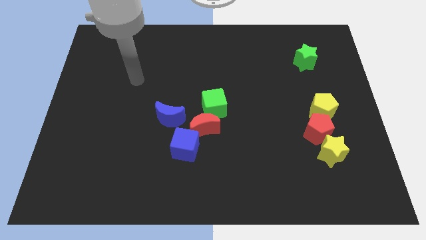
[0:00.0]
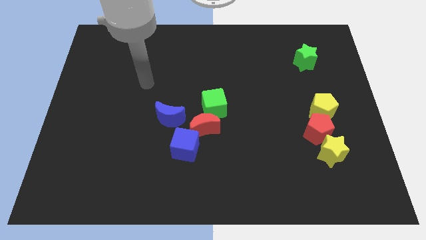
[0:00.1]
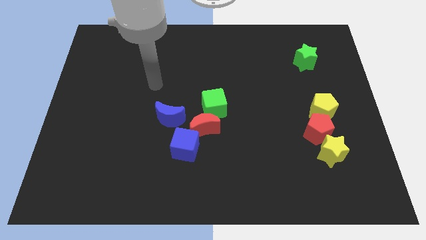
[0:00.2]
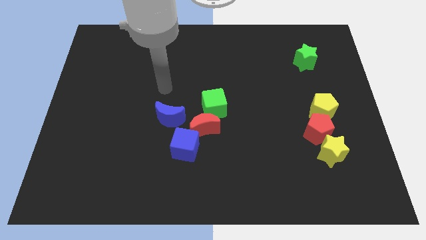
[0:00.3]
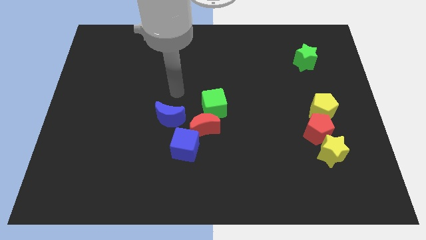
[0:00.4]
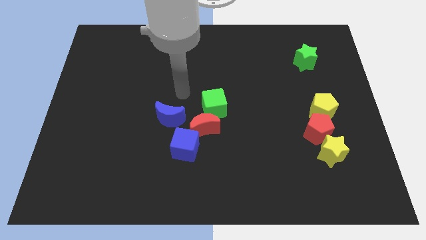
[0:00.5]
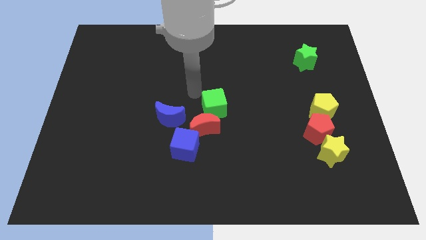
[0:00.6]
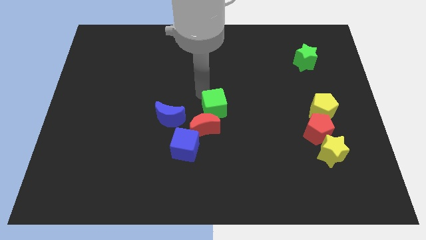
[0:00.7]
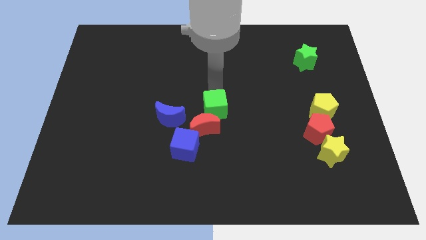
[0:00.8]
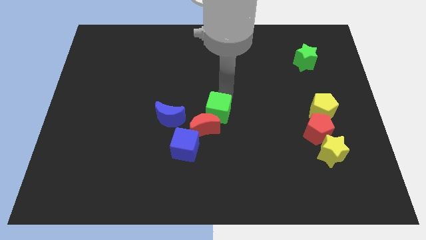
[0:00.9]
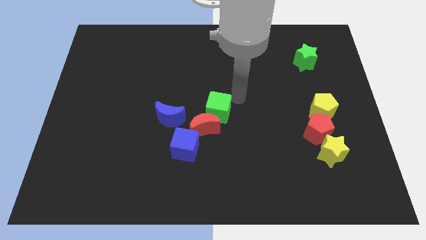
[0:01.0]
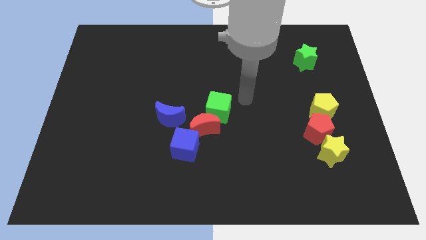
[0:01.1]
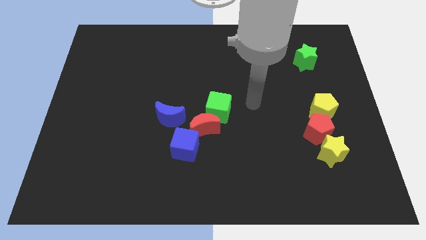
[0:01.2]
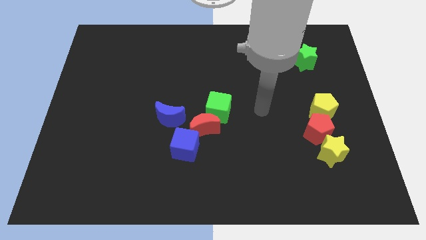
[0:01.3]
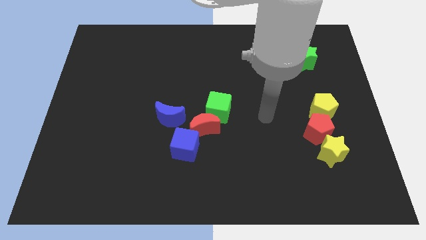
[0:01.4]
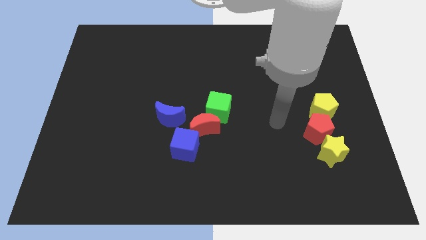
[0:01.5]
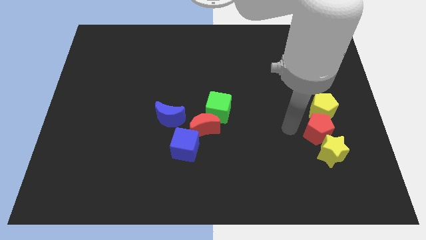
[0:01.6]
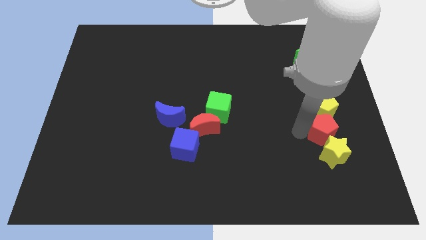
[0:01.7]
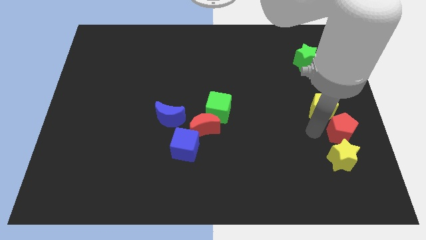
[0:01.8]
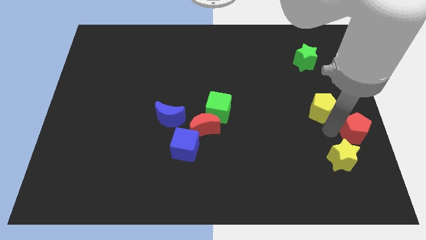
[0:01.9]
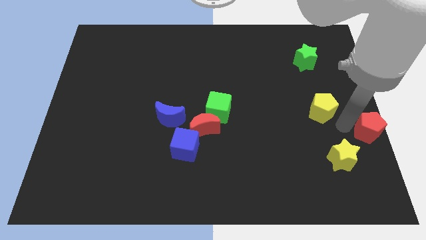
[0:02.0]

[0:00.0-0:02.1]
move the yellow pentagon away from the red pentagon

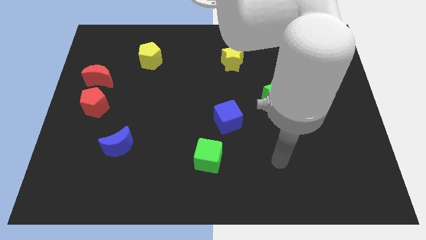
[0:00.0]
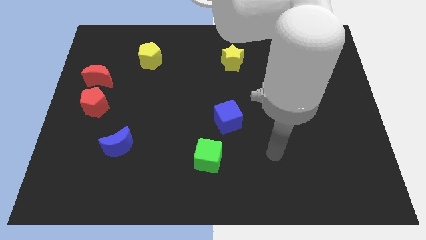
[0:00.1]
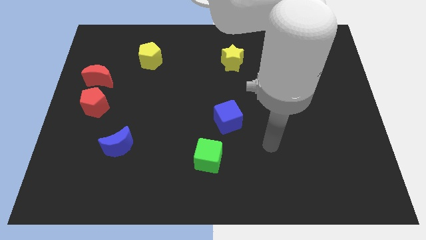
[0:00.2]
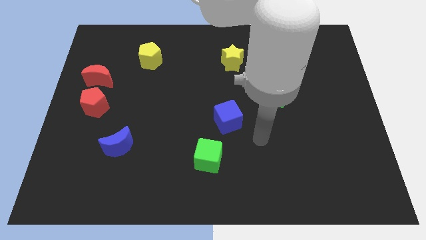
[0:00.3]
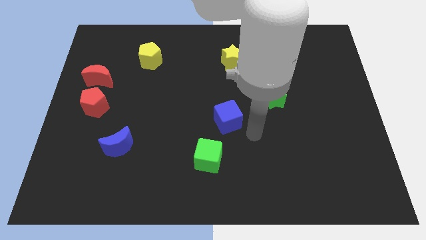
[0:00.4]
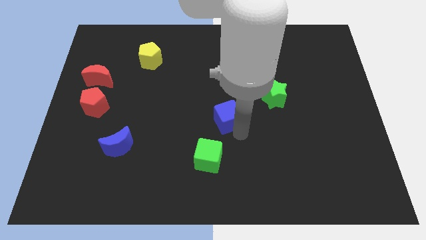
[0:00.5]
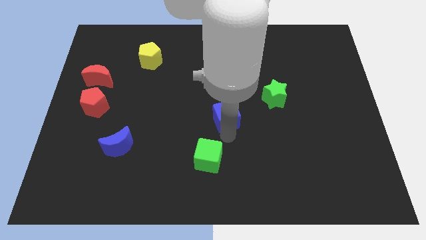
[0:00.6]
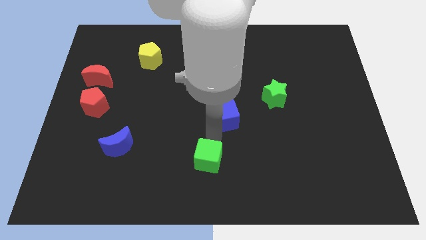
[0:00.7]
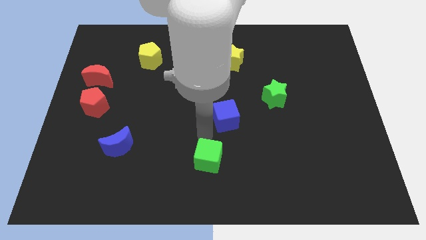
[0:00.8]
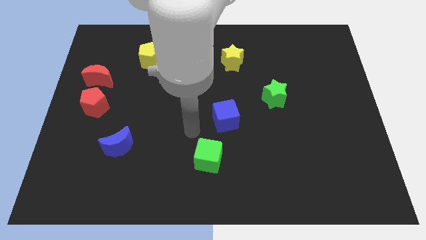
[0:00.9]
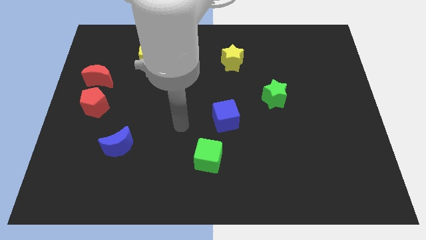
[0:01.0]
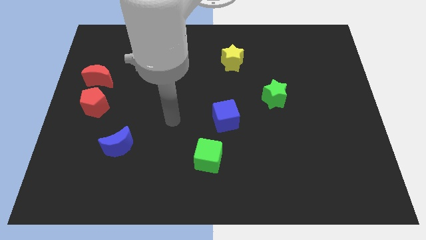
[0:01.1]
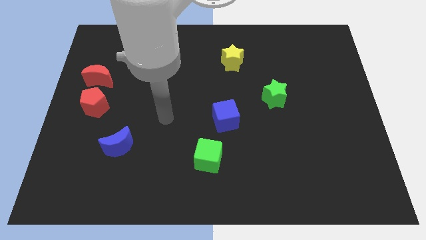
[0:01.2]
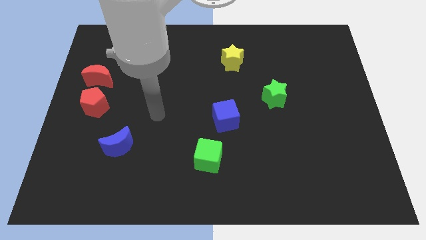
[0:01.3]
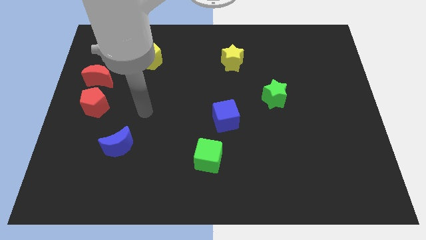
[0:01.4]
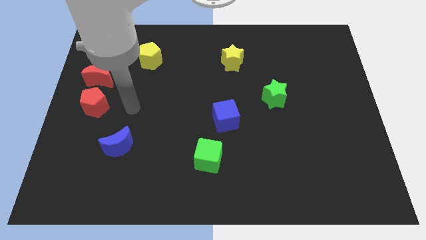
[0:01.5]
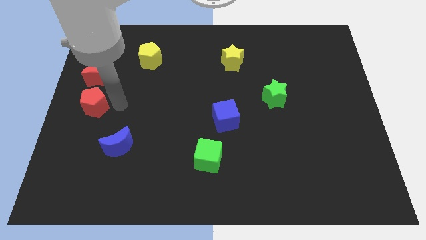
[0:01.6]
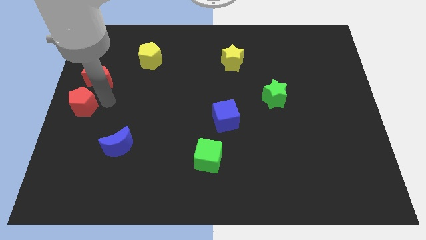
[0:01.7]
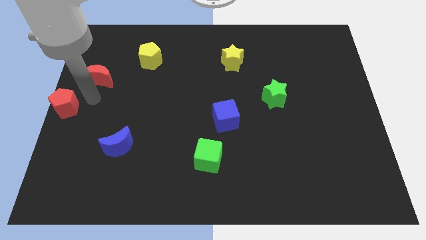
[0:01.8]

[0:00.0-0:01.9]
separate the red moon from the red pentagon

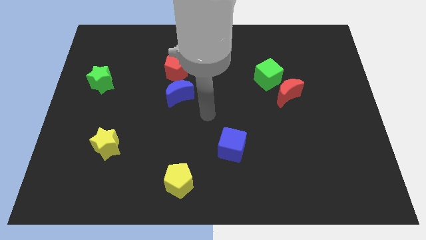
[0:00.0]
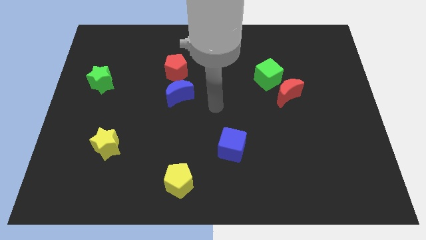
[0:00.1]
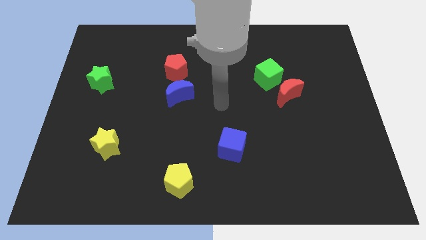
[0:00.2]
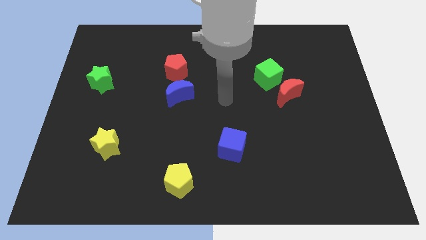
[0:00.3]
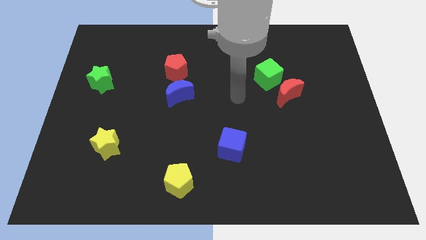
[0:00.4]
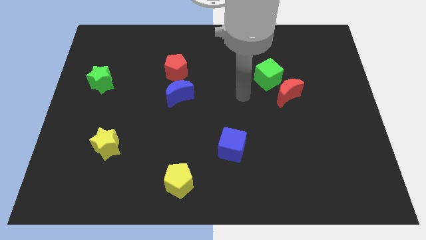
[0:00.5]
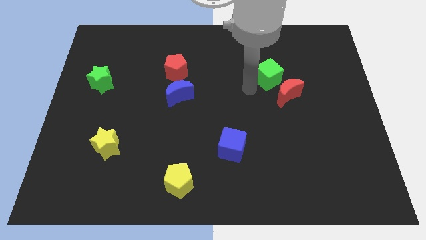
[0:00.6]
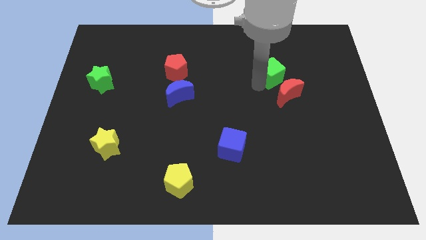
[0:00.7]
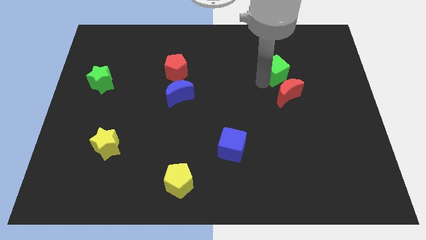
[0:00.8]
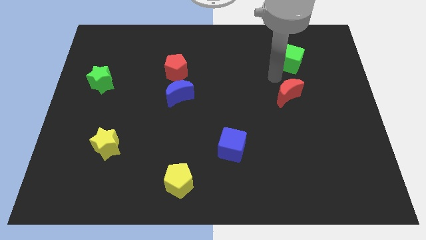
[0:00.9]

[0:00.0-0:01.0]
move the red moon away from the green cube

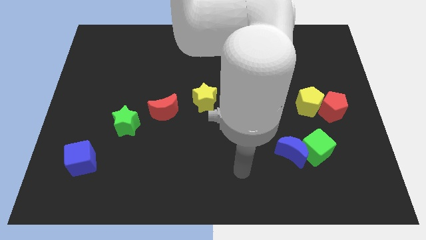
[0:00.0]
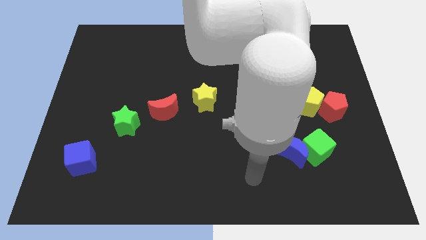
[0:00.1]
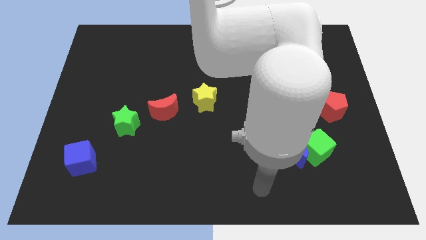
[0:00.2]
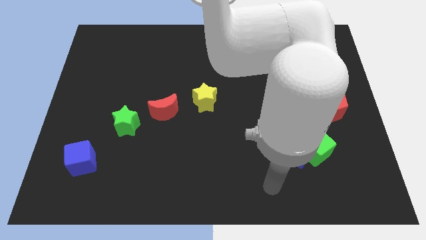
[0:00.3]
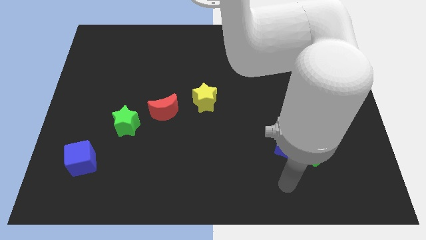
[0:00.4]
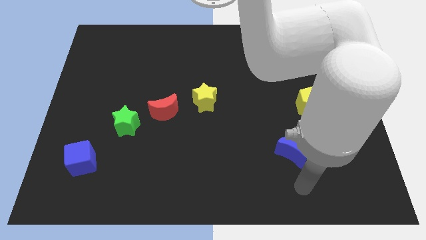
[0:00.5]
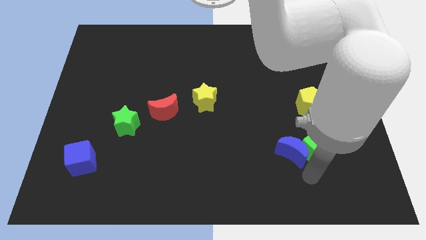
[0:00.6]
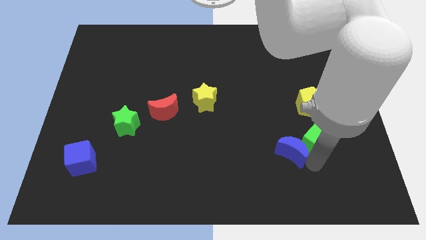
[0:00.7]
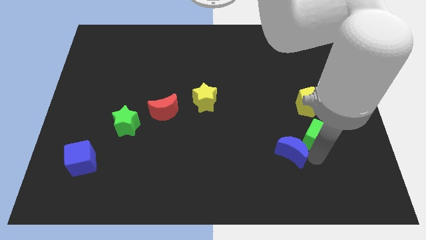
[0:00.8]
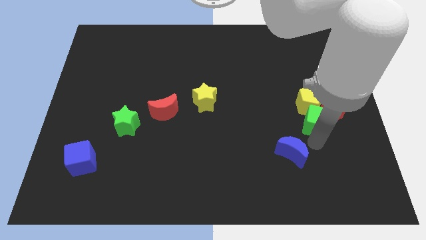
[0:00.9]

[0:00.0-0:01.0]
separate the blue moon from the green cube

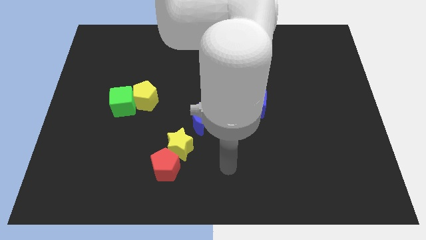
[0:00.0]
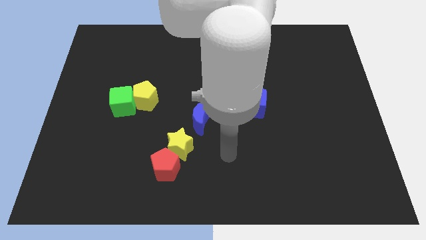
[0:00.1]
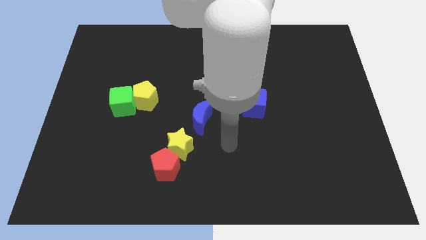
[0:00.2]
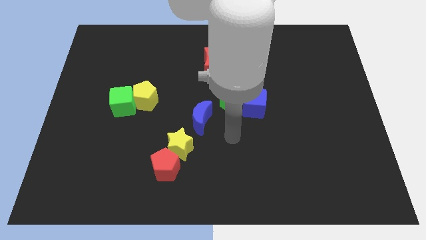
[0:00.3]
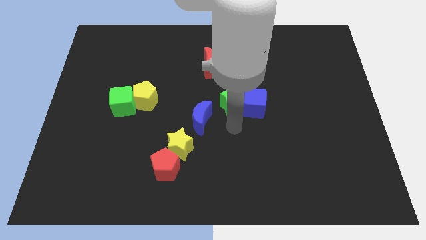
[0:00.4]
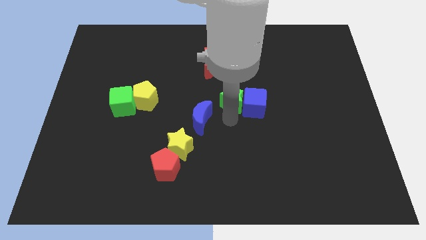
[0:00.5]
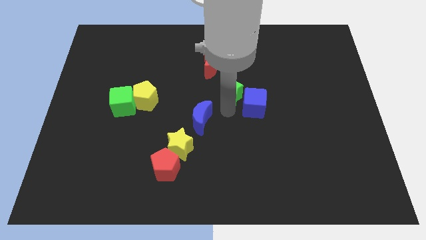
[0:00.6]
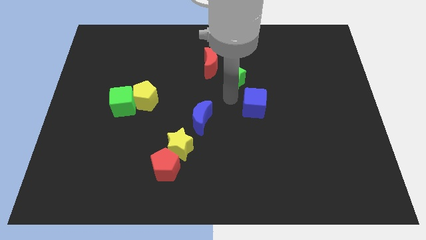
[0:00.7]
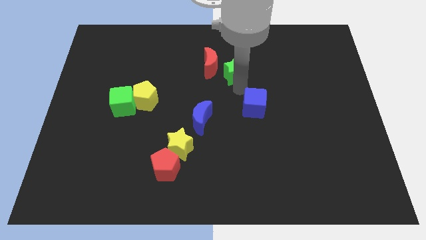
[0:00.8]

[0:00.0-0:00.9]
separate the blue cube from the green star

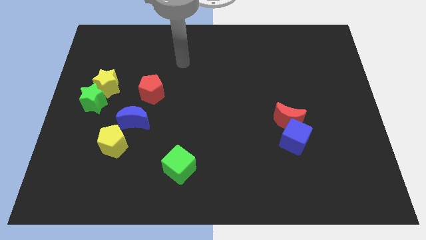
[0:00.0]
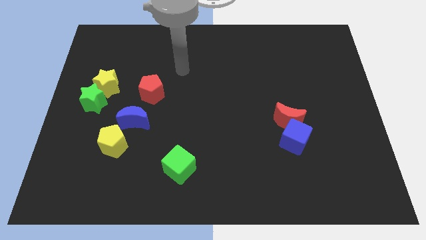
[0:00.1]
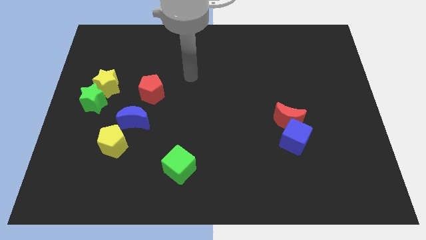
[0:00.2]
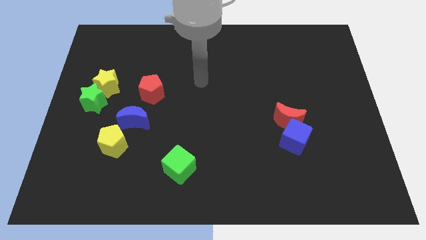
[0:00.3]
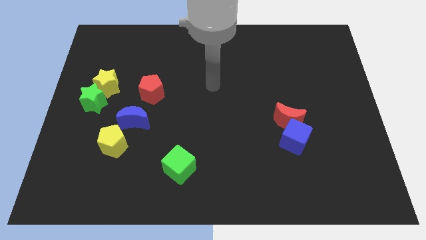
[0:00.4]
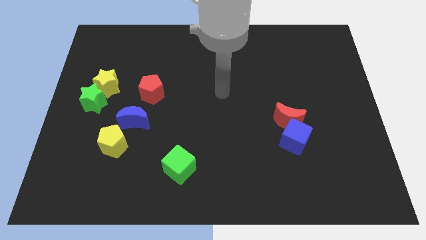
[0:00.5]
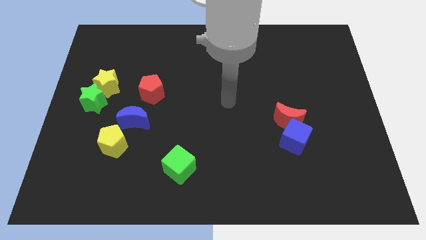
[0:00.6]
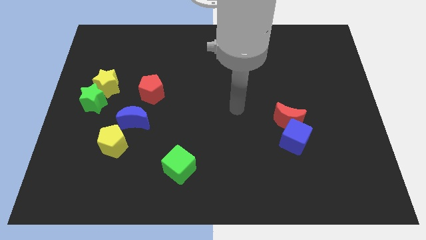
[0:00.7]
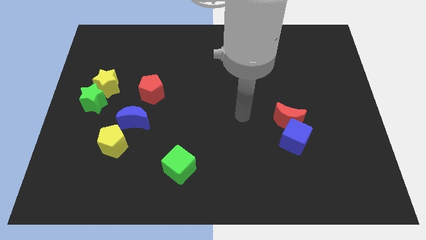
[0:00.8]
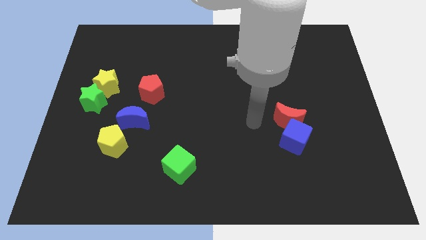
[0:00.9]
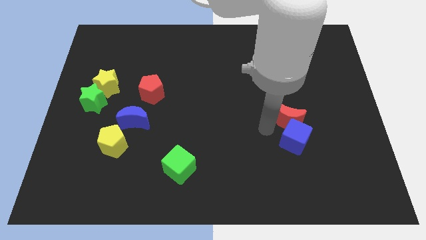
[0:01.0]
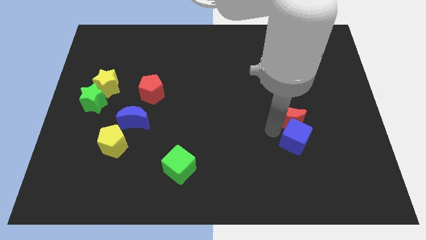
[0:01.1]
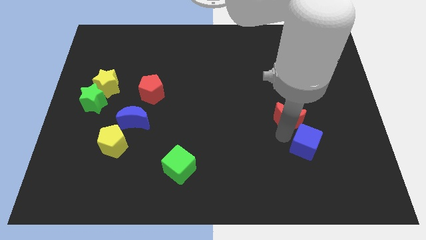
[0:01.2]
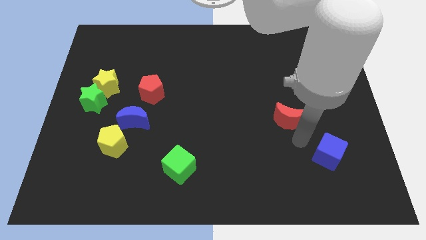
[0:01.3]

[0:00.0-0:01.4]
separate the red moon from the blue cube

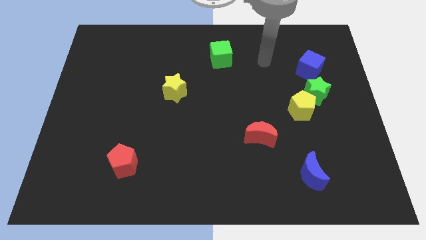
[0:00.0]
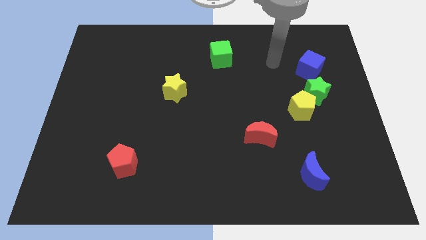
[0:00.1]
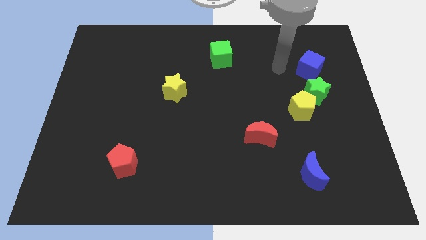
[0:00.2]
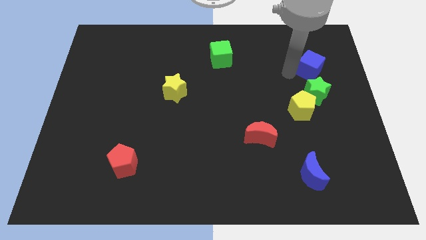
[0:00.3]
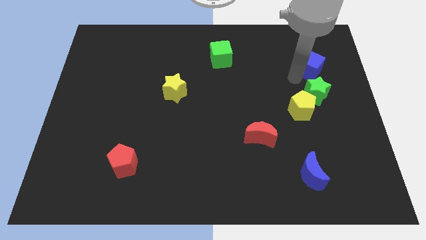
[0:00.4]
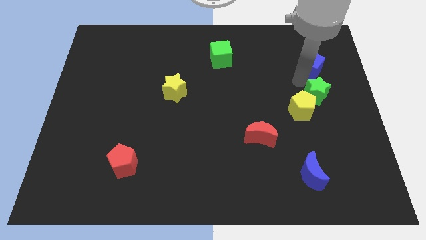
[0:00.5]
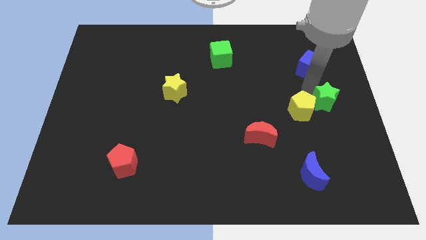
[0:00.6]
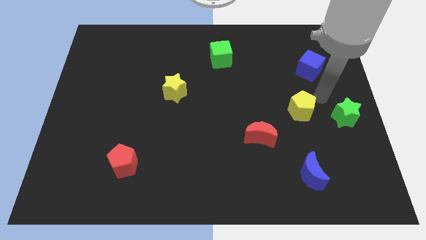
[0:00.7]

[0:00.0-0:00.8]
move the yellow pentagon away from the green star
